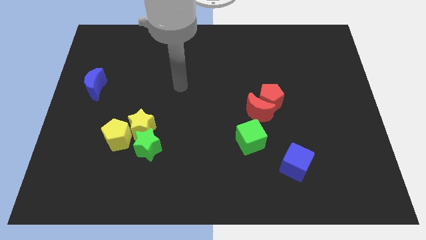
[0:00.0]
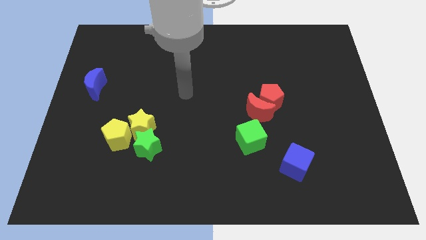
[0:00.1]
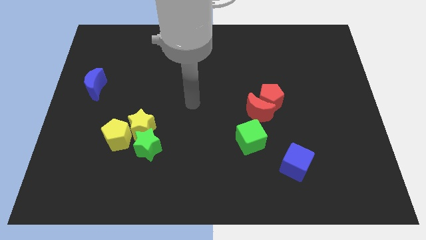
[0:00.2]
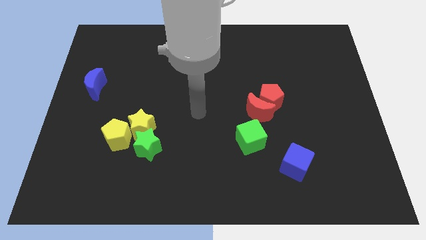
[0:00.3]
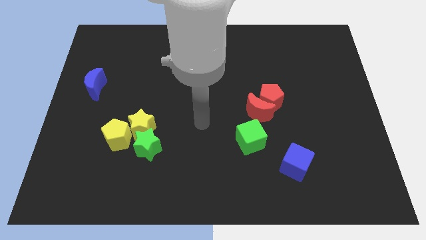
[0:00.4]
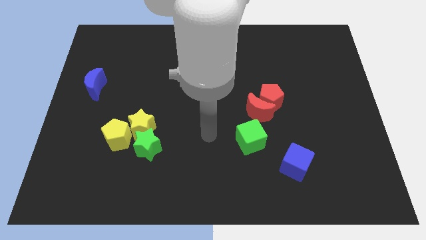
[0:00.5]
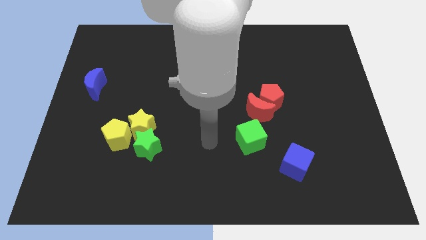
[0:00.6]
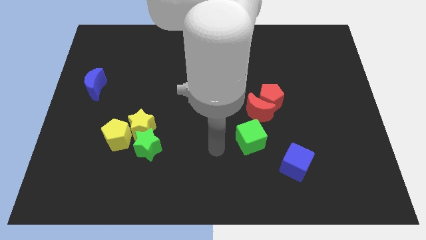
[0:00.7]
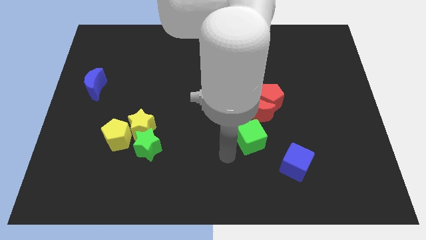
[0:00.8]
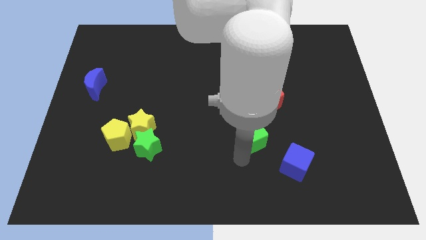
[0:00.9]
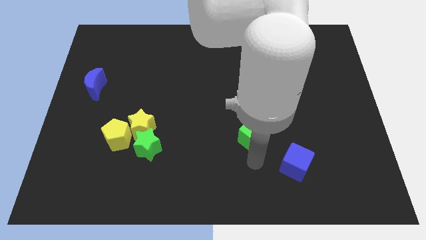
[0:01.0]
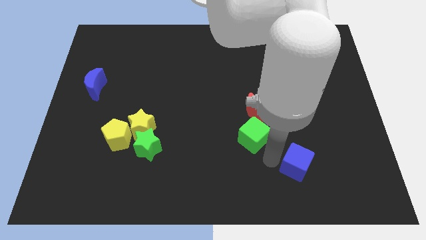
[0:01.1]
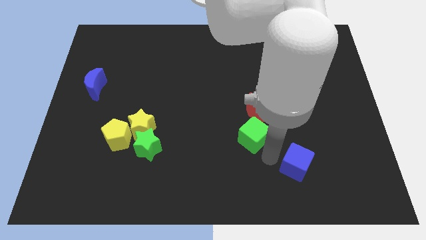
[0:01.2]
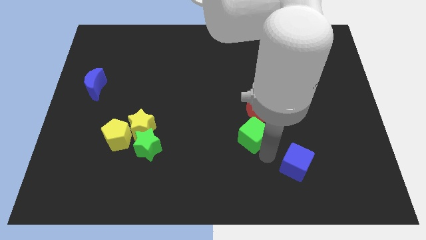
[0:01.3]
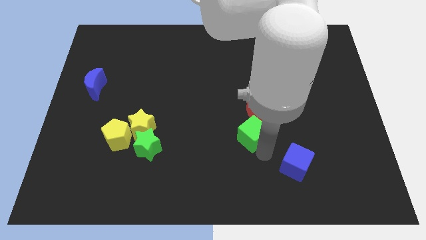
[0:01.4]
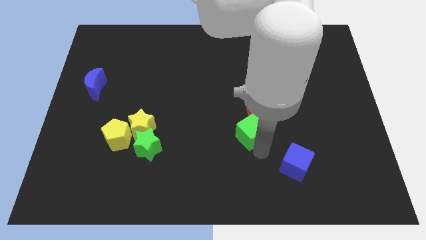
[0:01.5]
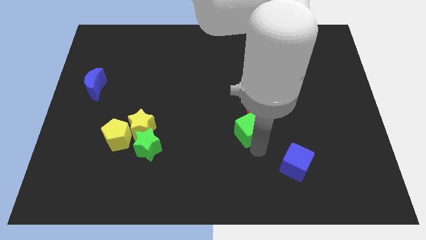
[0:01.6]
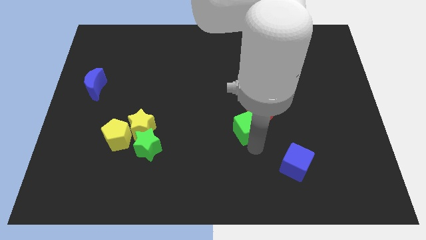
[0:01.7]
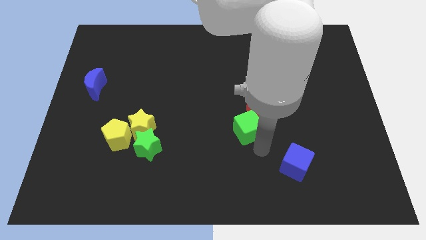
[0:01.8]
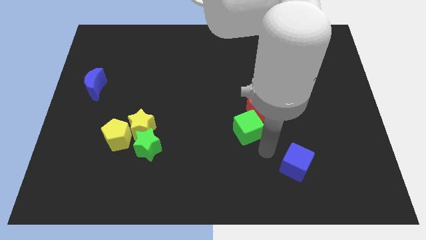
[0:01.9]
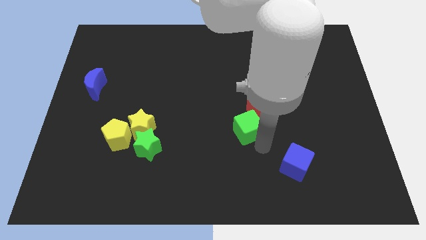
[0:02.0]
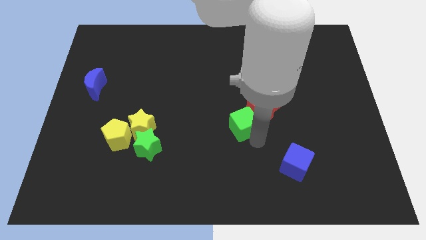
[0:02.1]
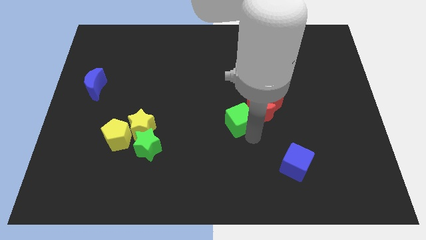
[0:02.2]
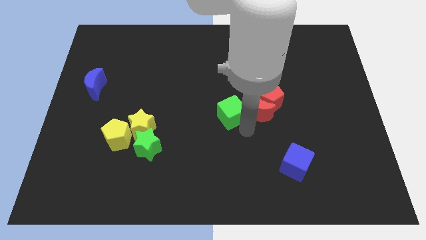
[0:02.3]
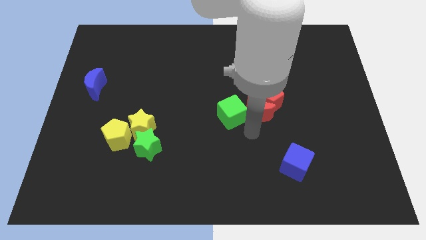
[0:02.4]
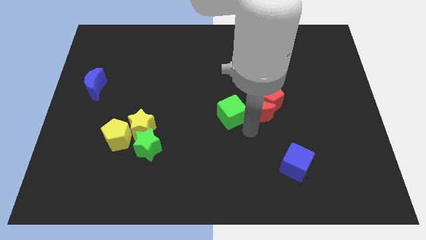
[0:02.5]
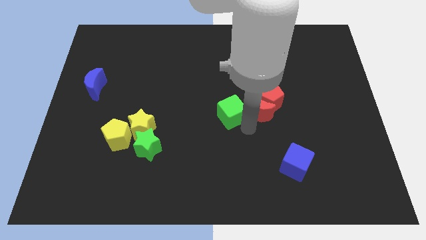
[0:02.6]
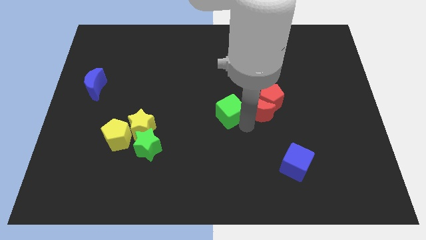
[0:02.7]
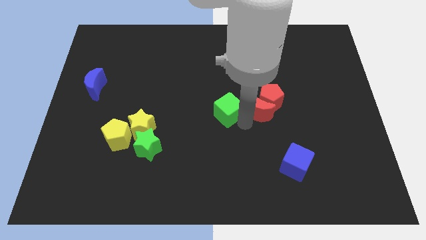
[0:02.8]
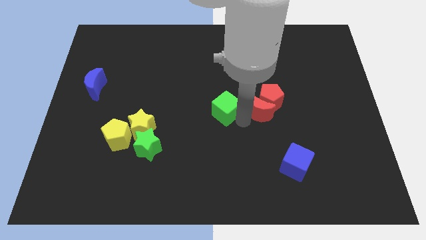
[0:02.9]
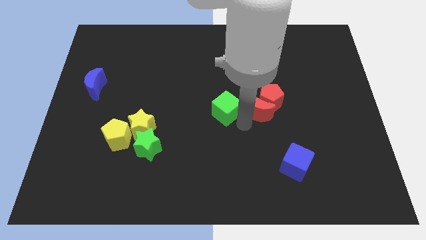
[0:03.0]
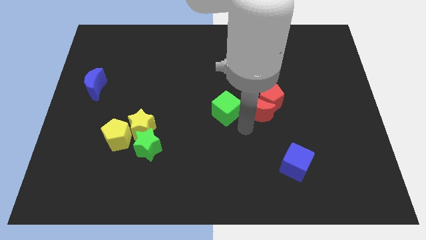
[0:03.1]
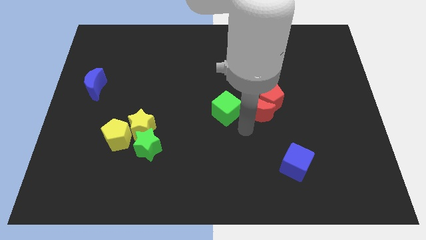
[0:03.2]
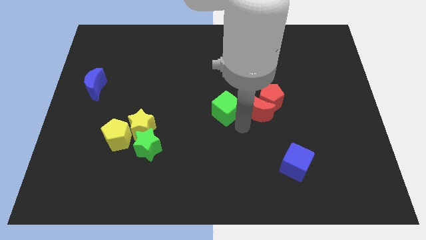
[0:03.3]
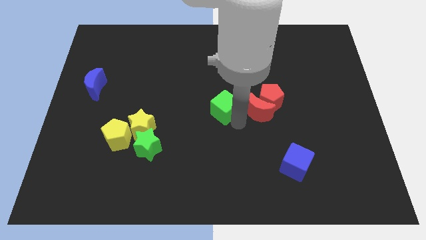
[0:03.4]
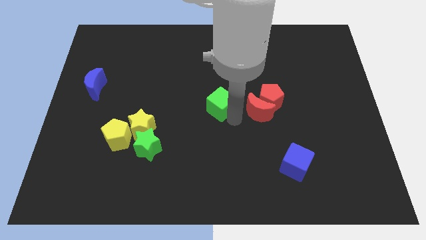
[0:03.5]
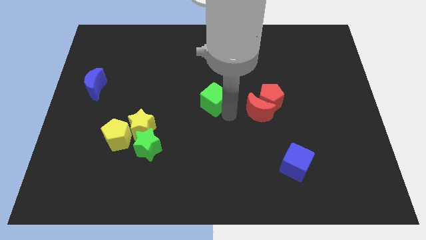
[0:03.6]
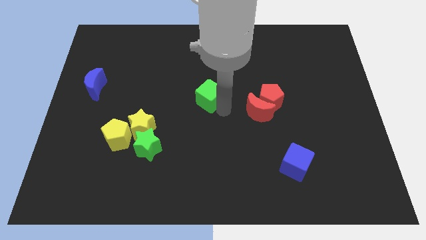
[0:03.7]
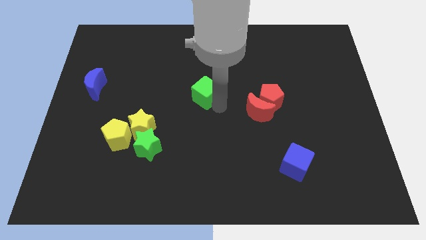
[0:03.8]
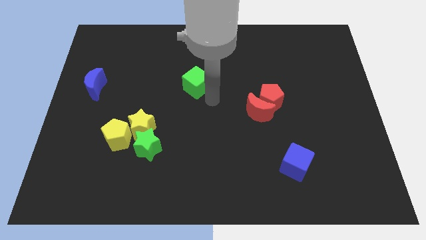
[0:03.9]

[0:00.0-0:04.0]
push the green cube diagonally upwards and to the left

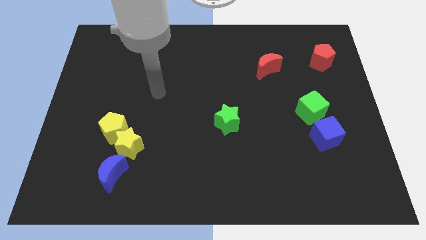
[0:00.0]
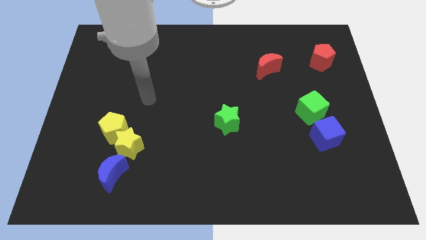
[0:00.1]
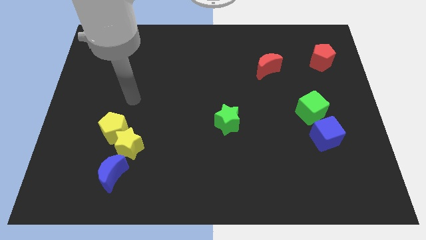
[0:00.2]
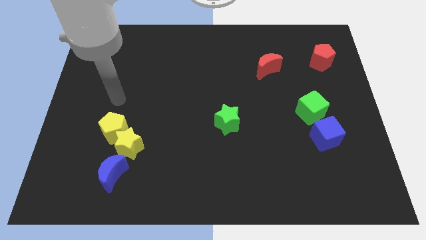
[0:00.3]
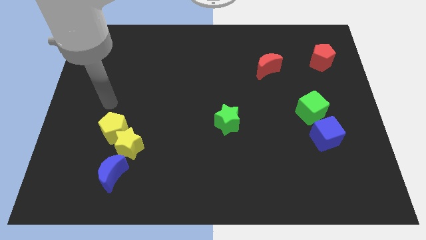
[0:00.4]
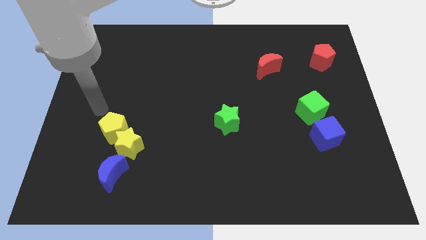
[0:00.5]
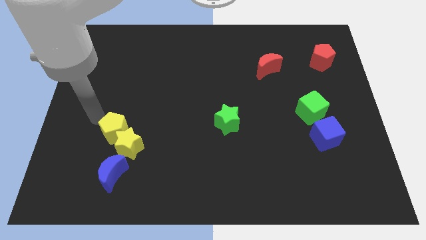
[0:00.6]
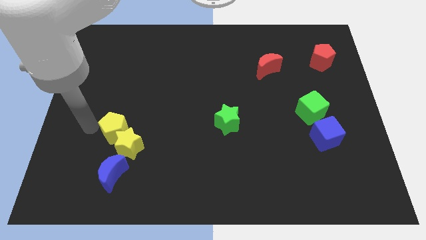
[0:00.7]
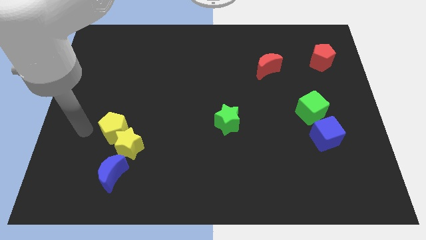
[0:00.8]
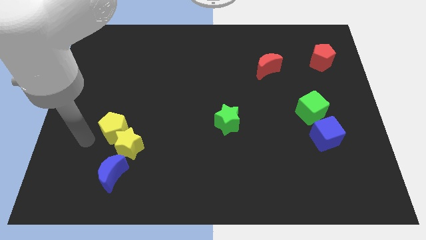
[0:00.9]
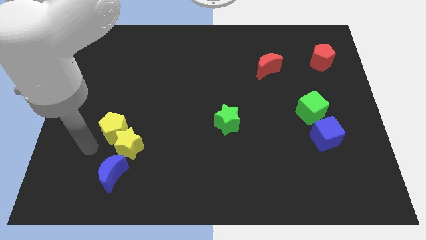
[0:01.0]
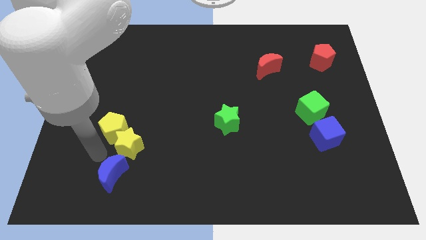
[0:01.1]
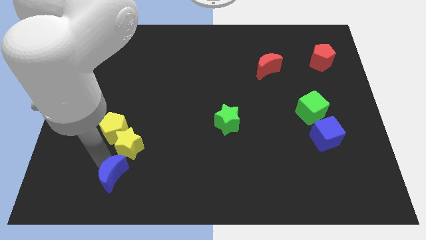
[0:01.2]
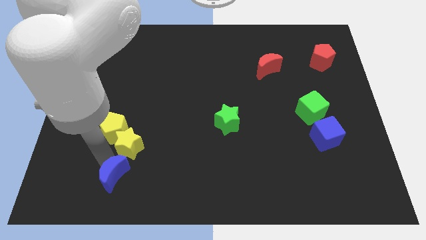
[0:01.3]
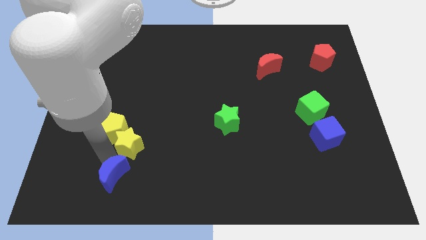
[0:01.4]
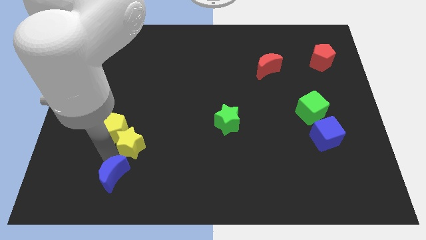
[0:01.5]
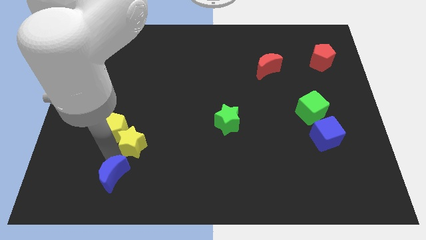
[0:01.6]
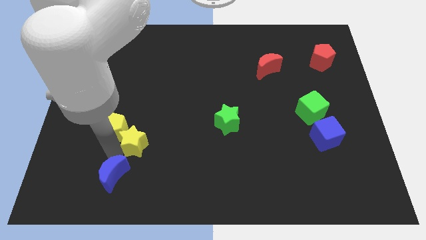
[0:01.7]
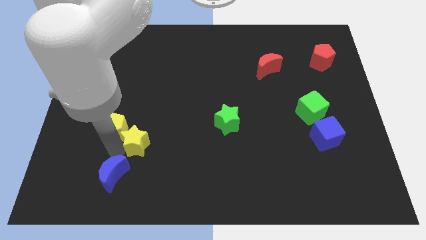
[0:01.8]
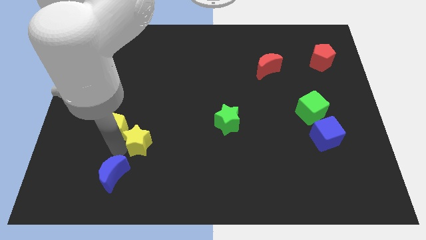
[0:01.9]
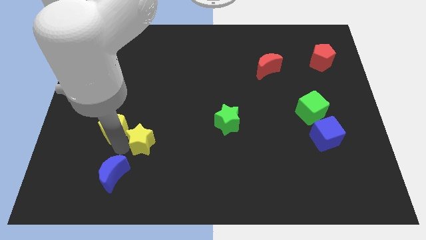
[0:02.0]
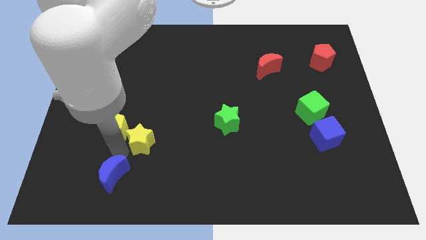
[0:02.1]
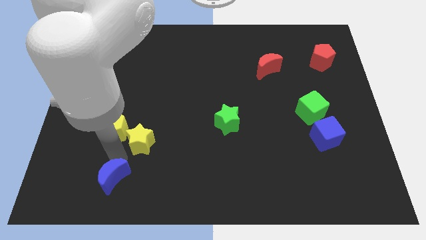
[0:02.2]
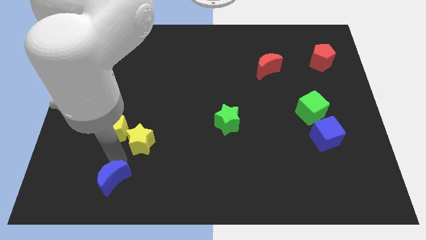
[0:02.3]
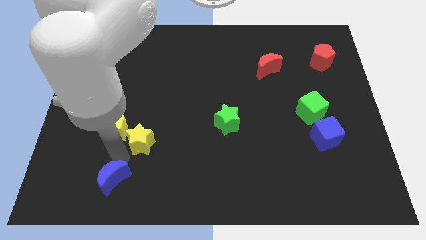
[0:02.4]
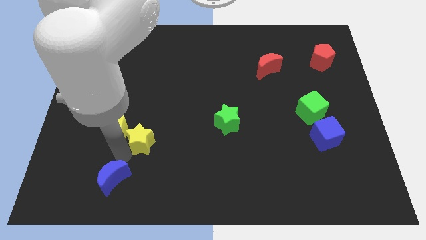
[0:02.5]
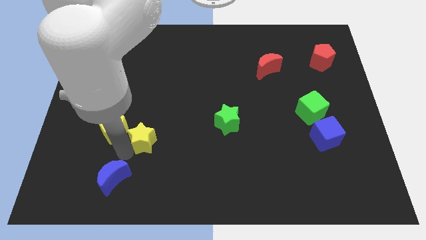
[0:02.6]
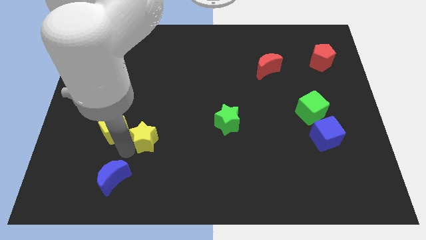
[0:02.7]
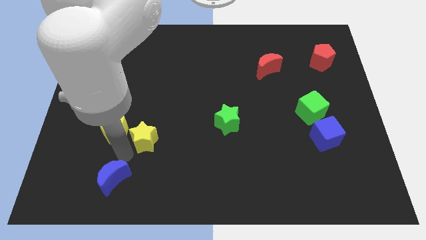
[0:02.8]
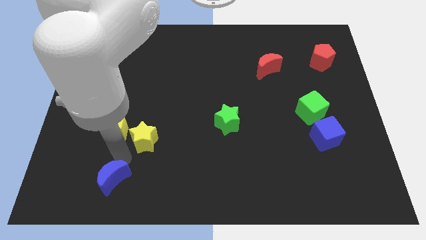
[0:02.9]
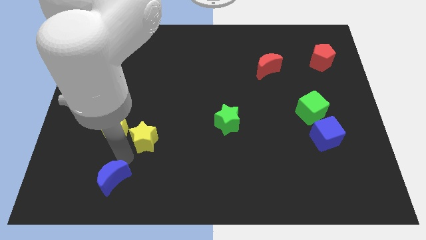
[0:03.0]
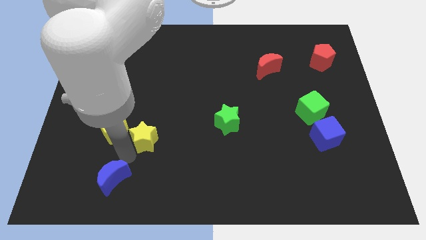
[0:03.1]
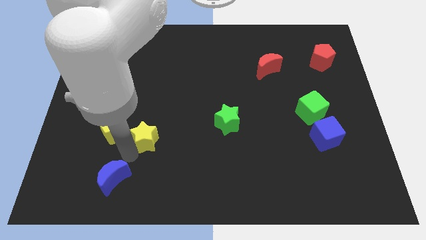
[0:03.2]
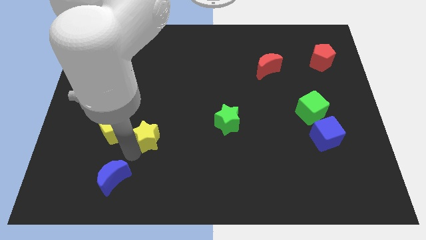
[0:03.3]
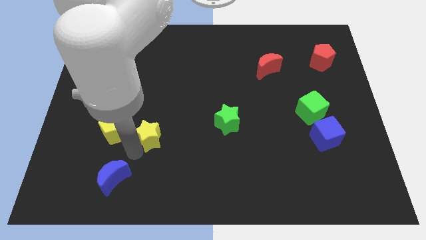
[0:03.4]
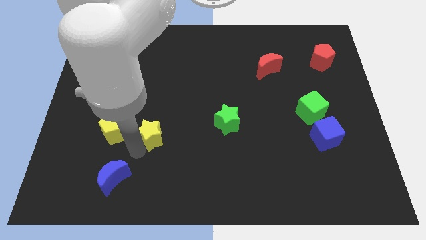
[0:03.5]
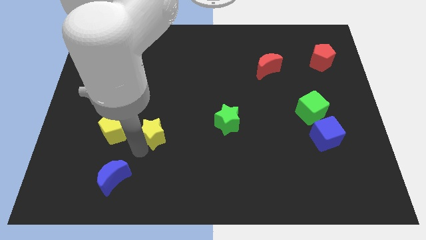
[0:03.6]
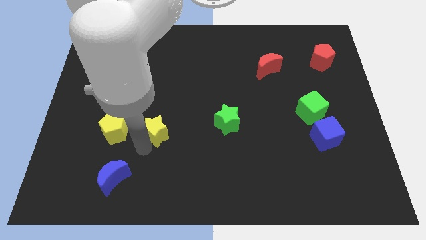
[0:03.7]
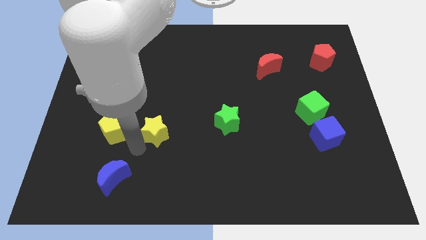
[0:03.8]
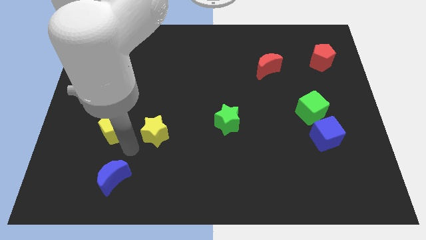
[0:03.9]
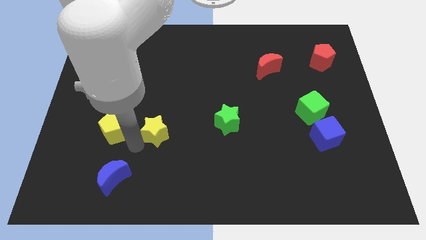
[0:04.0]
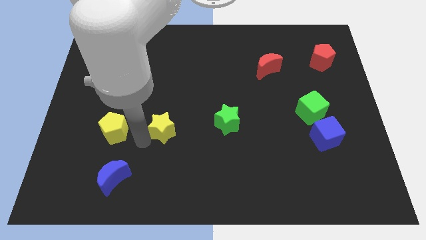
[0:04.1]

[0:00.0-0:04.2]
slide the yellow star somewhat up and then right
